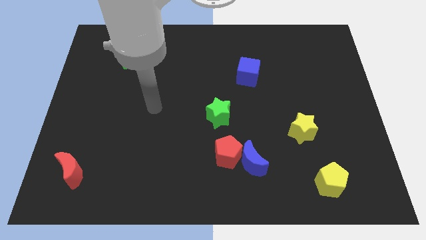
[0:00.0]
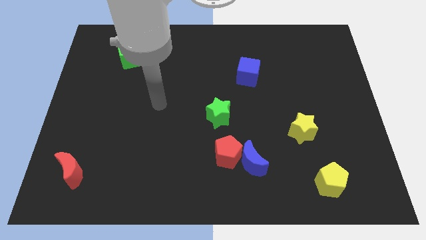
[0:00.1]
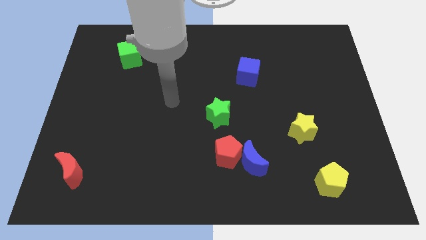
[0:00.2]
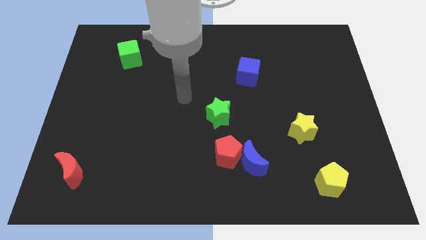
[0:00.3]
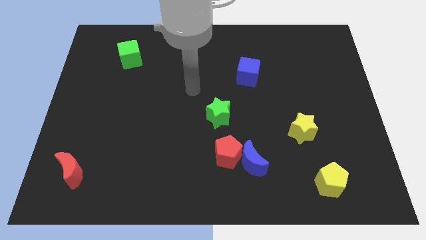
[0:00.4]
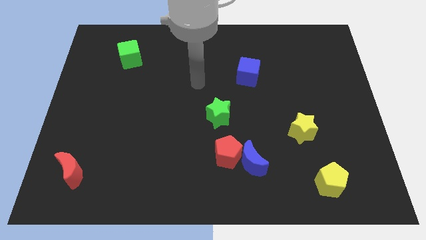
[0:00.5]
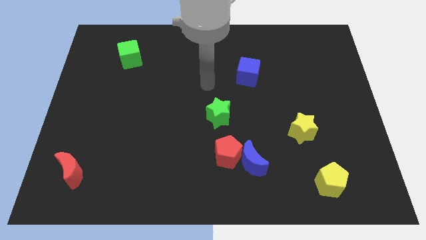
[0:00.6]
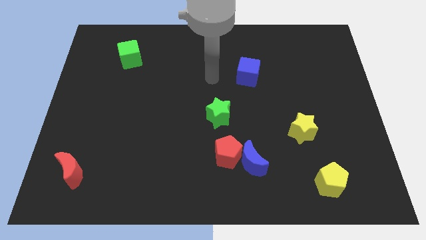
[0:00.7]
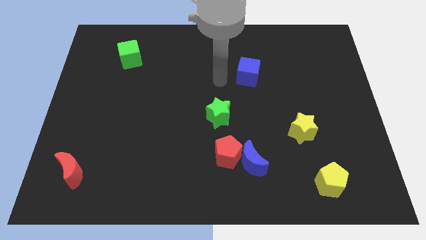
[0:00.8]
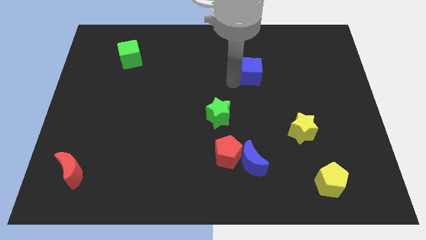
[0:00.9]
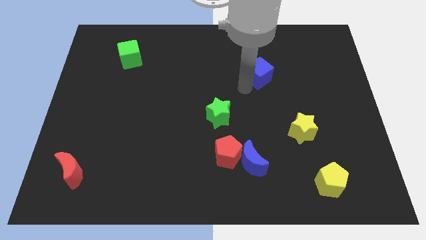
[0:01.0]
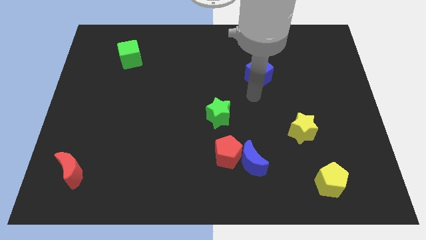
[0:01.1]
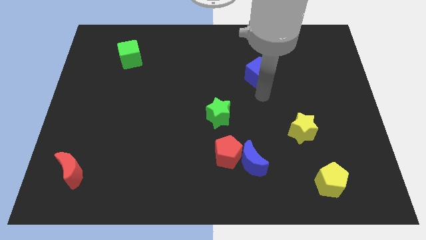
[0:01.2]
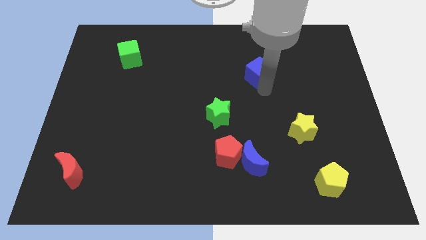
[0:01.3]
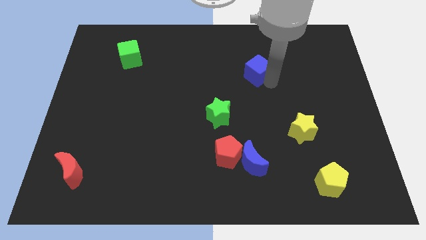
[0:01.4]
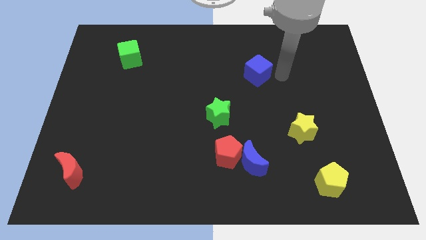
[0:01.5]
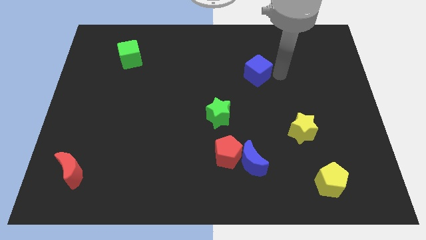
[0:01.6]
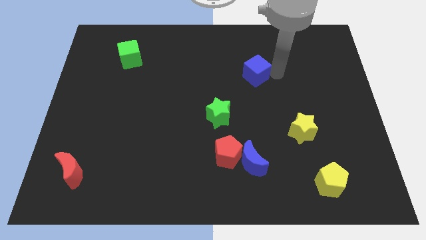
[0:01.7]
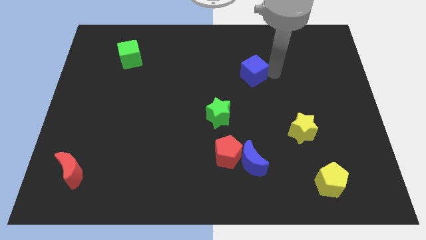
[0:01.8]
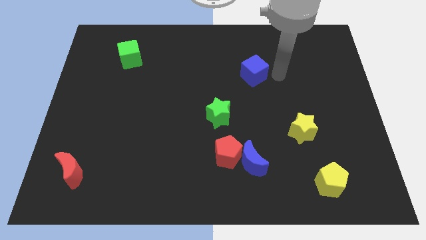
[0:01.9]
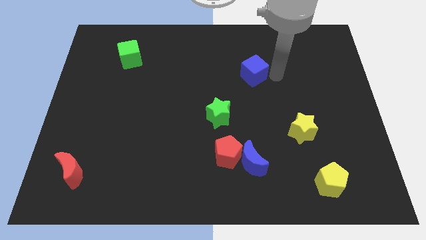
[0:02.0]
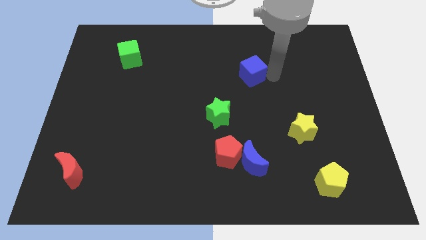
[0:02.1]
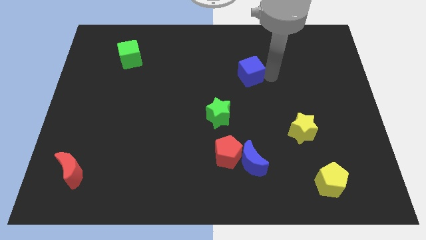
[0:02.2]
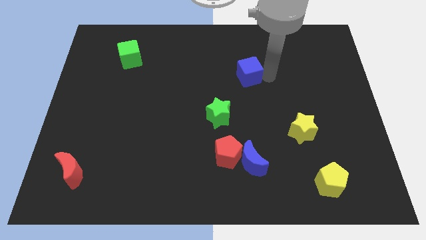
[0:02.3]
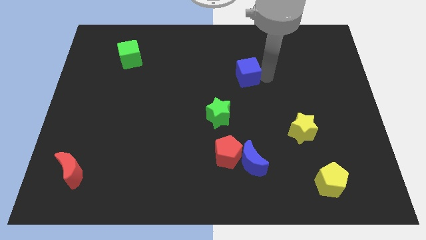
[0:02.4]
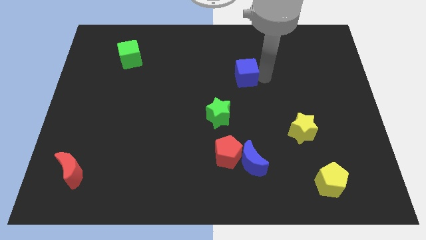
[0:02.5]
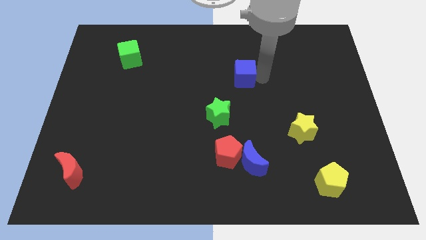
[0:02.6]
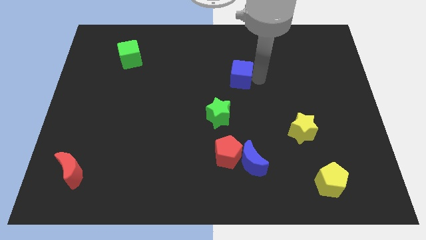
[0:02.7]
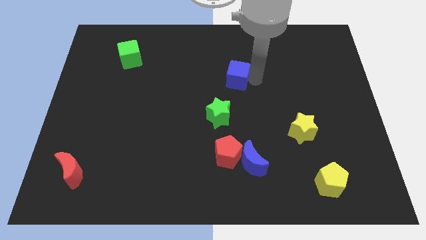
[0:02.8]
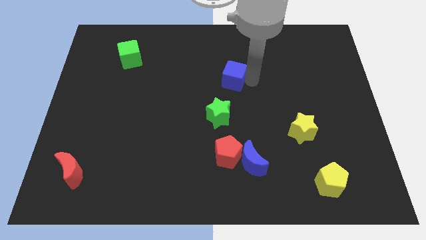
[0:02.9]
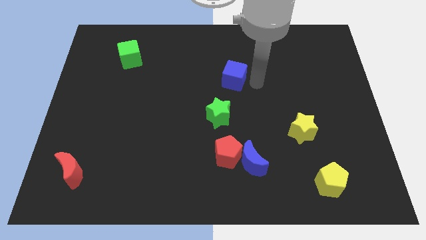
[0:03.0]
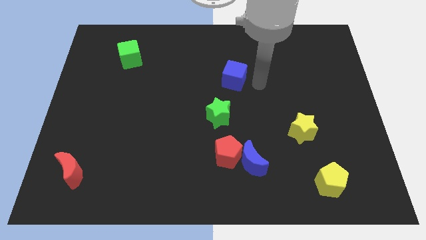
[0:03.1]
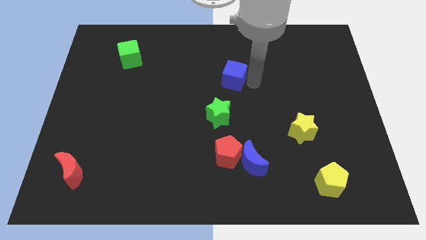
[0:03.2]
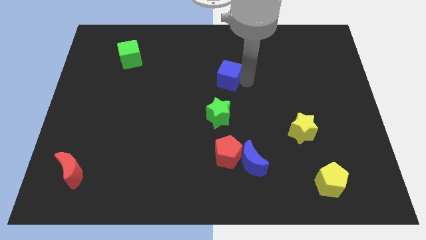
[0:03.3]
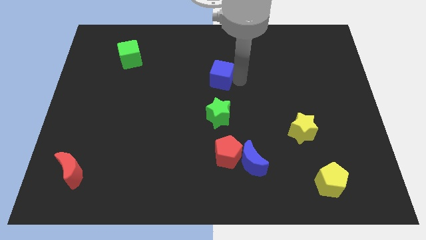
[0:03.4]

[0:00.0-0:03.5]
move the blue cube to the left somewhat

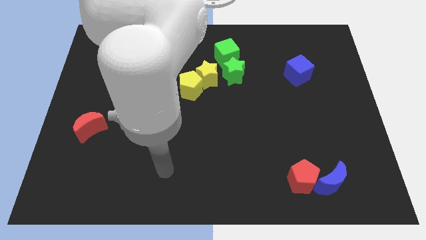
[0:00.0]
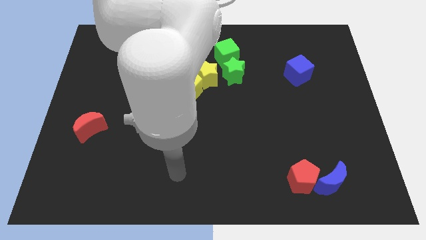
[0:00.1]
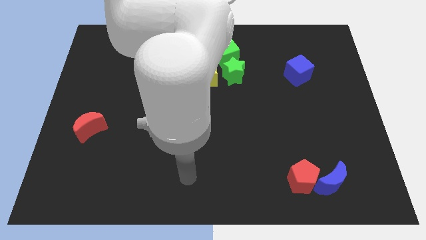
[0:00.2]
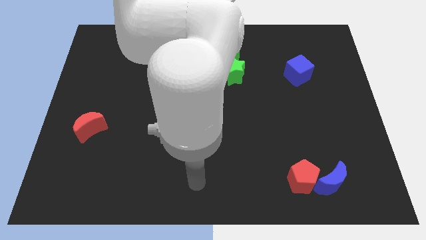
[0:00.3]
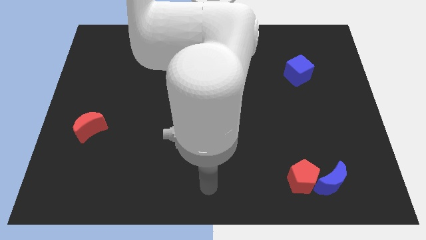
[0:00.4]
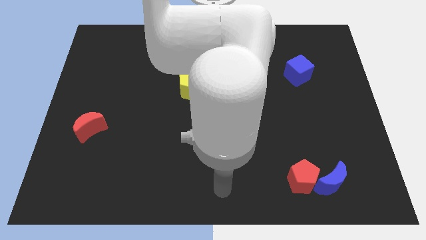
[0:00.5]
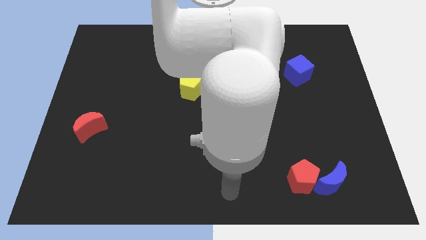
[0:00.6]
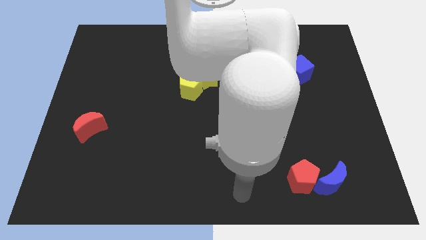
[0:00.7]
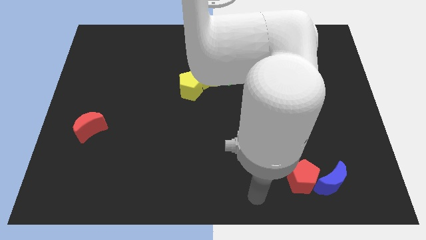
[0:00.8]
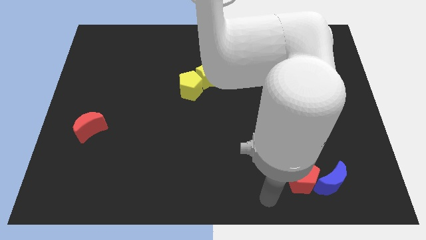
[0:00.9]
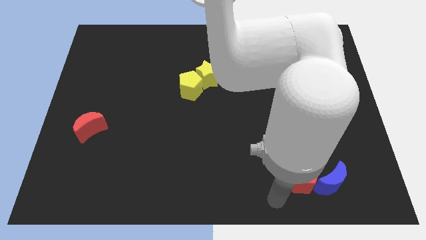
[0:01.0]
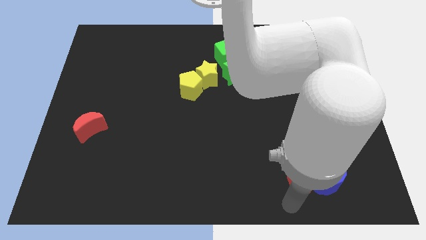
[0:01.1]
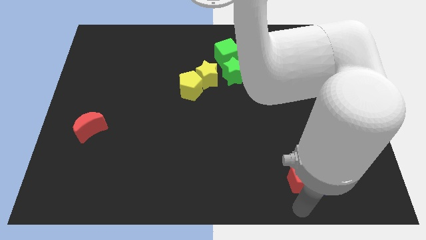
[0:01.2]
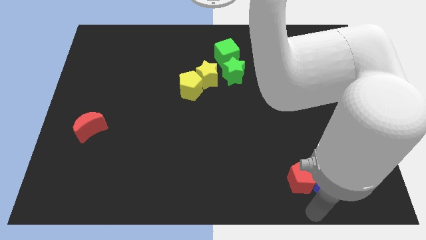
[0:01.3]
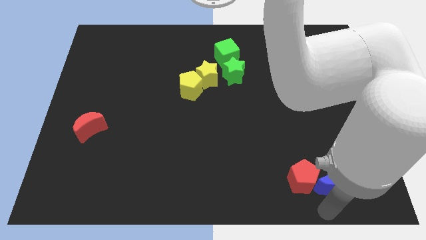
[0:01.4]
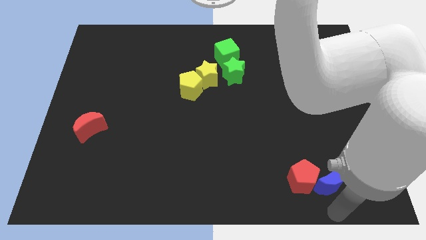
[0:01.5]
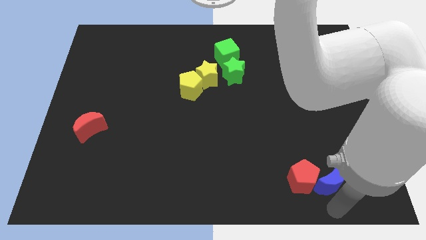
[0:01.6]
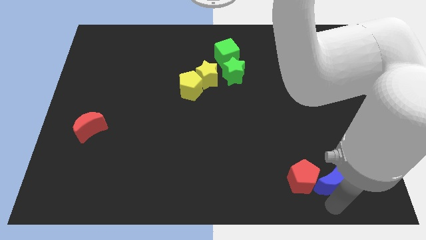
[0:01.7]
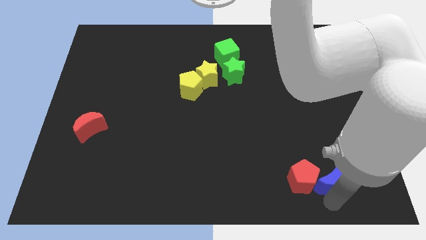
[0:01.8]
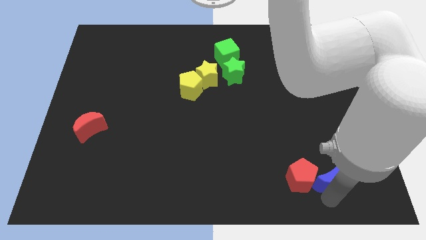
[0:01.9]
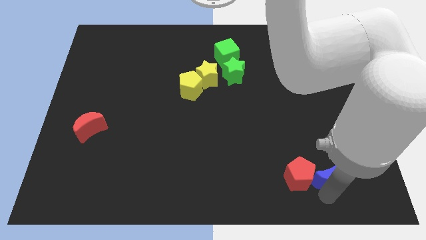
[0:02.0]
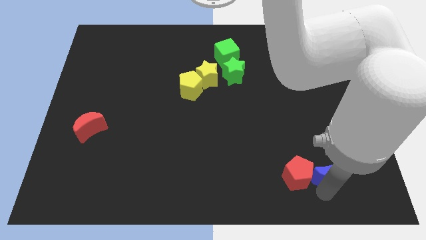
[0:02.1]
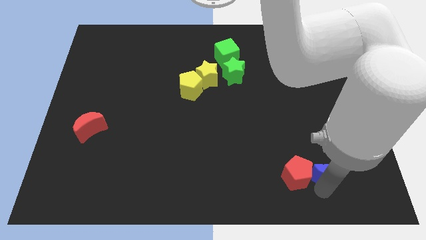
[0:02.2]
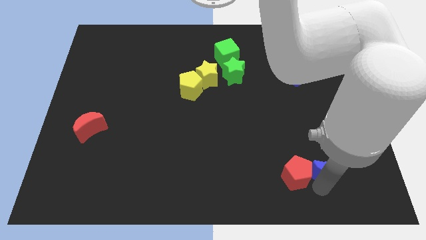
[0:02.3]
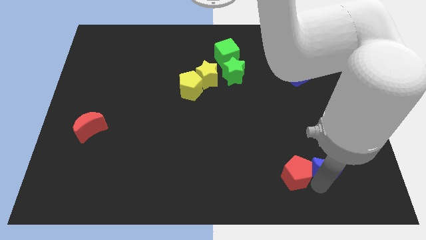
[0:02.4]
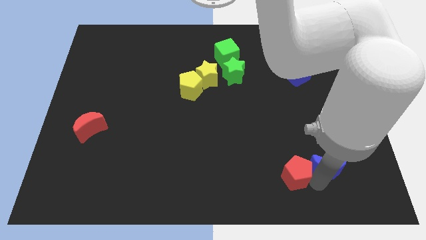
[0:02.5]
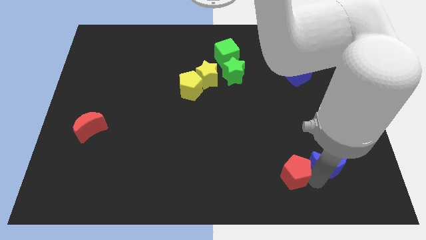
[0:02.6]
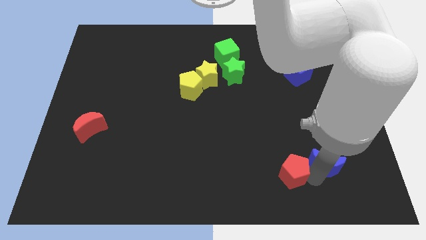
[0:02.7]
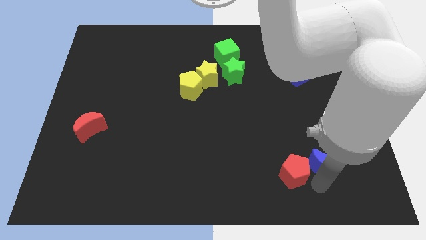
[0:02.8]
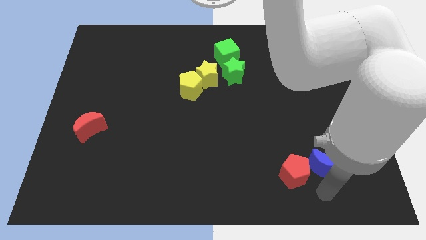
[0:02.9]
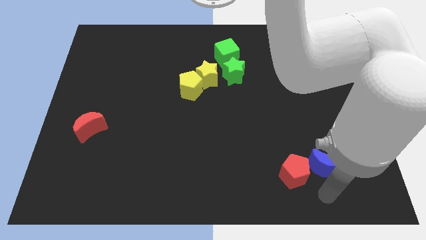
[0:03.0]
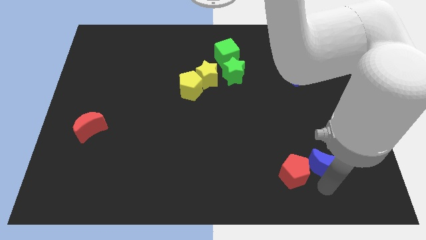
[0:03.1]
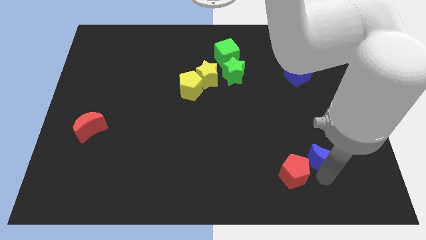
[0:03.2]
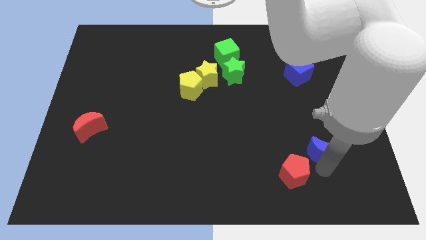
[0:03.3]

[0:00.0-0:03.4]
push the blue moon up somewhat

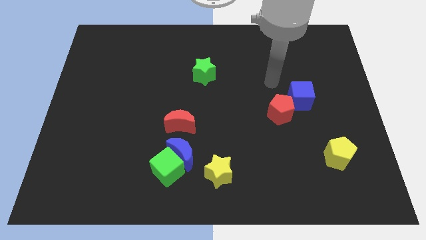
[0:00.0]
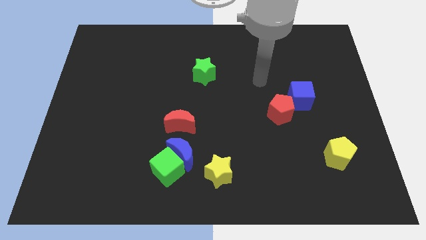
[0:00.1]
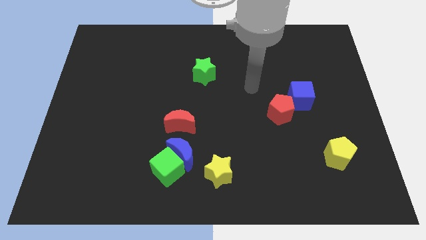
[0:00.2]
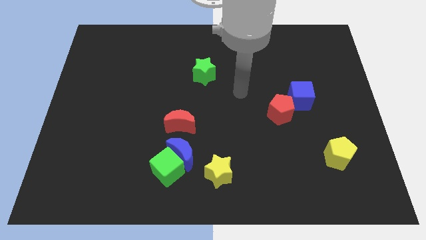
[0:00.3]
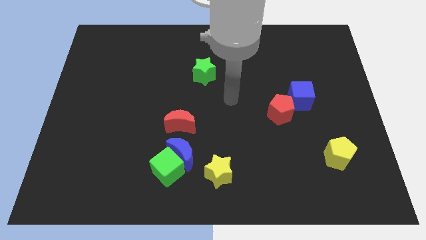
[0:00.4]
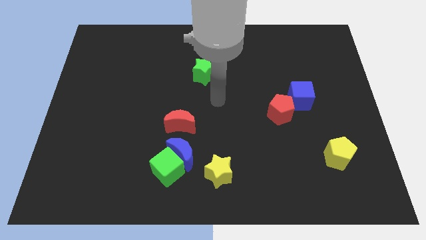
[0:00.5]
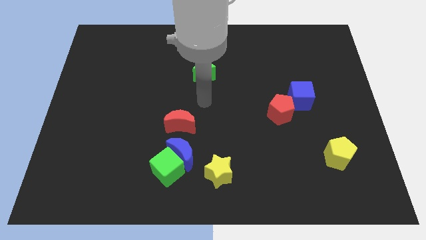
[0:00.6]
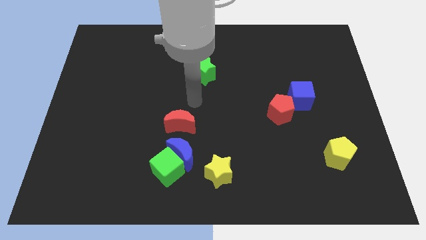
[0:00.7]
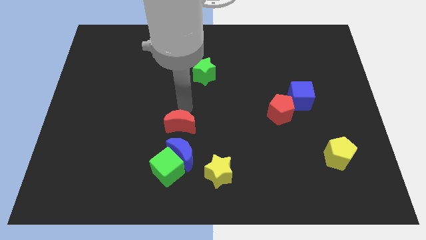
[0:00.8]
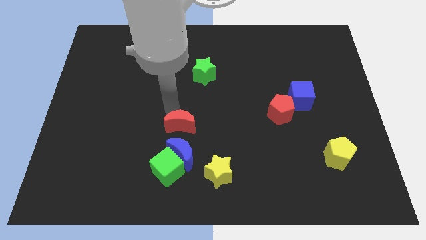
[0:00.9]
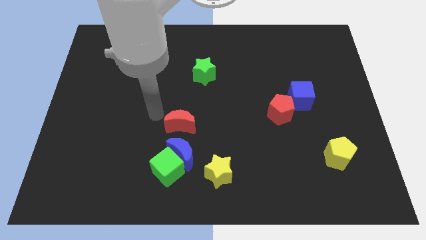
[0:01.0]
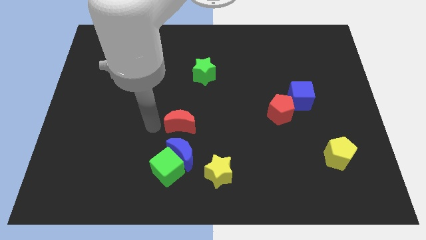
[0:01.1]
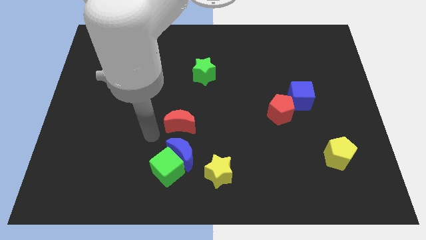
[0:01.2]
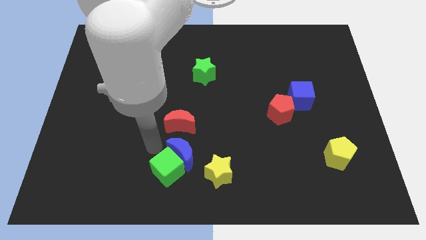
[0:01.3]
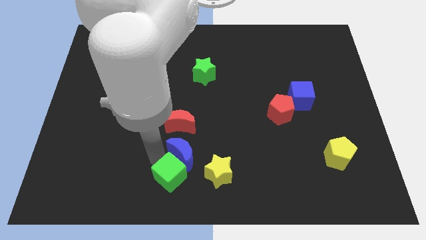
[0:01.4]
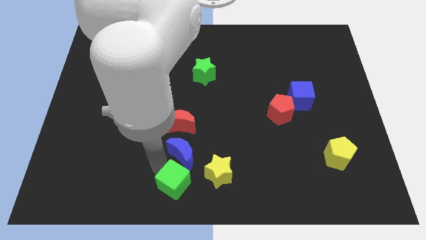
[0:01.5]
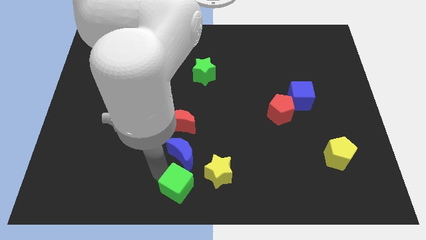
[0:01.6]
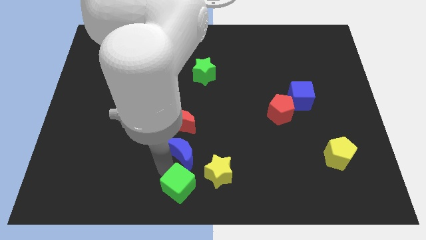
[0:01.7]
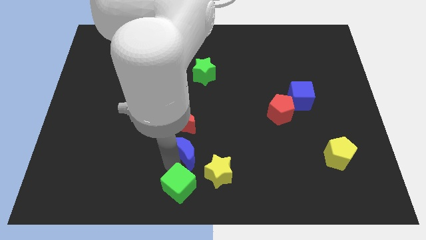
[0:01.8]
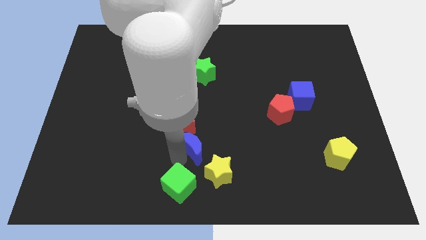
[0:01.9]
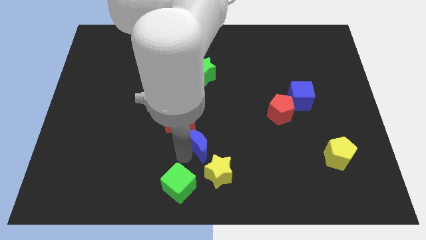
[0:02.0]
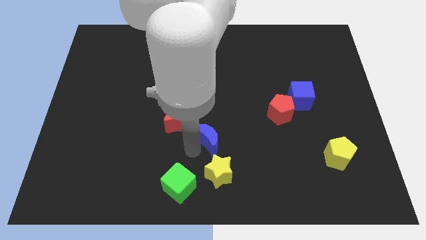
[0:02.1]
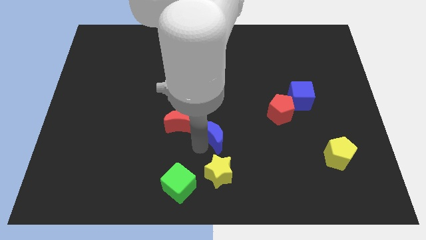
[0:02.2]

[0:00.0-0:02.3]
slightly move the blue moon diagonally up and to the right
